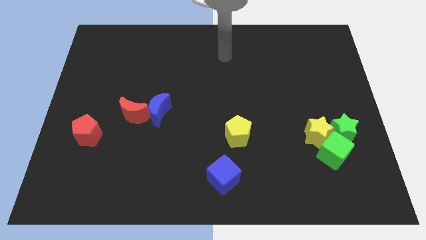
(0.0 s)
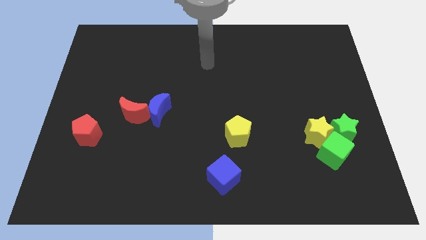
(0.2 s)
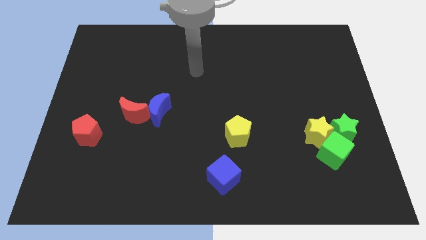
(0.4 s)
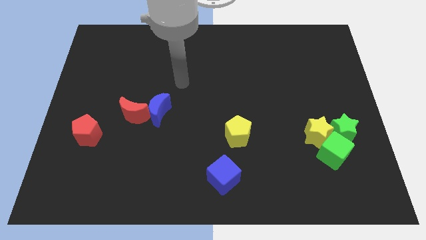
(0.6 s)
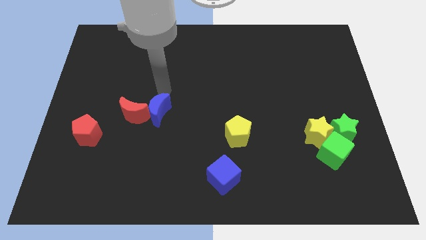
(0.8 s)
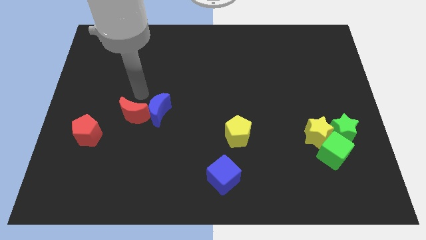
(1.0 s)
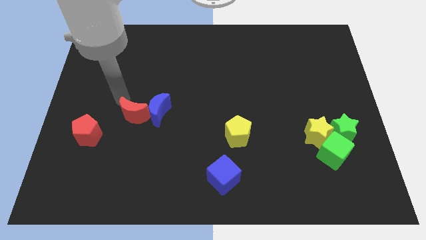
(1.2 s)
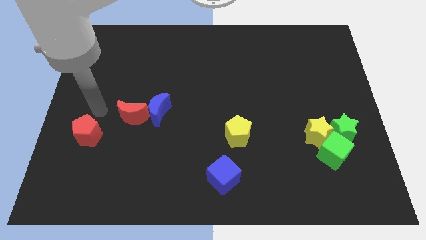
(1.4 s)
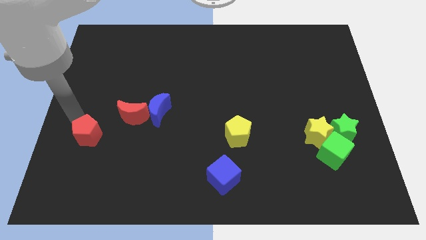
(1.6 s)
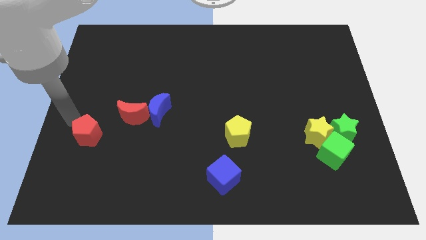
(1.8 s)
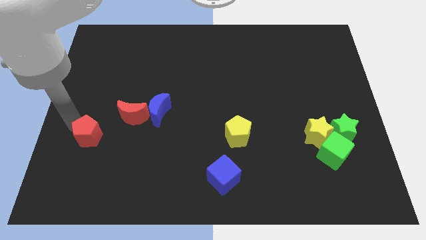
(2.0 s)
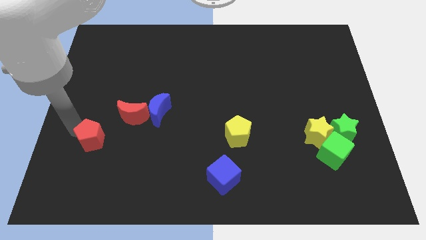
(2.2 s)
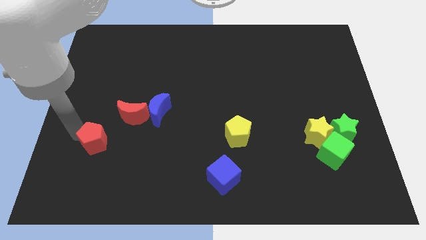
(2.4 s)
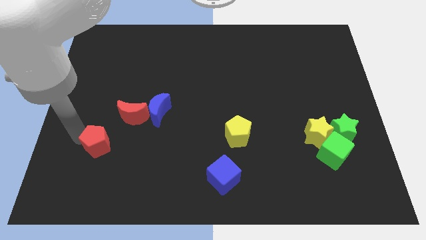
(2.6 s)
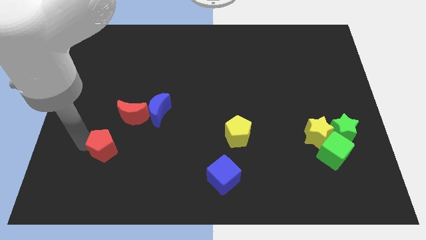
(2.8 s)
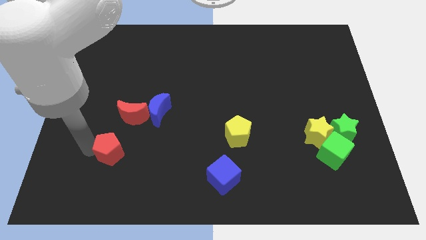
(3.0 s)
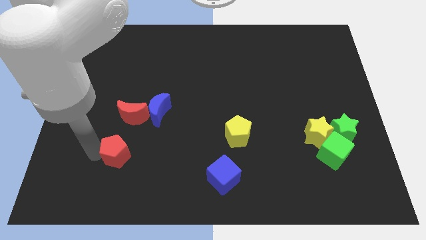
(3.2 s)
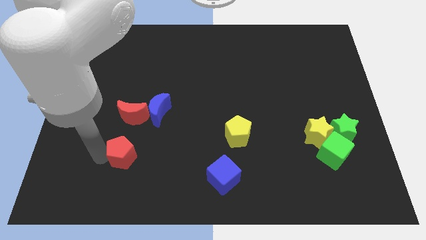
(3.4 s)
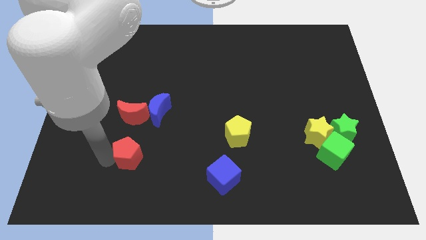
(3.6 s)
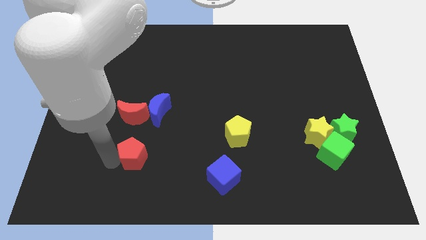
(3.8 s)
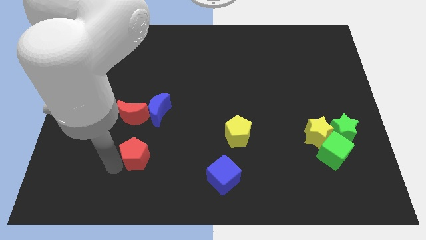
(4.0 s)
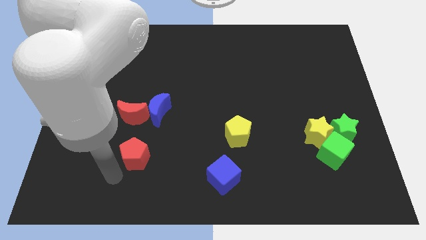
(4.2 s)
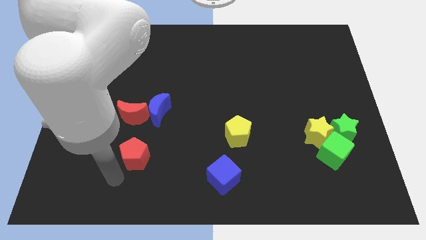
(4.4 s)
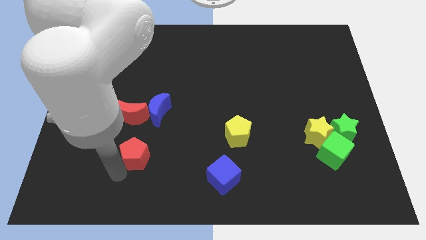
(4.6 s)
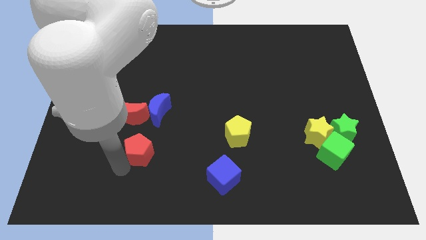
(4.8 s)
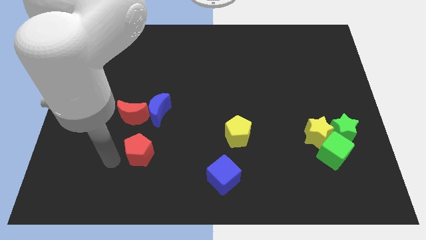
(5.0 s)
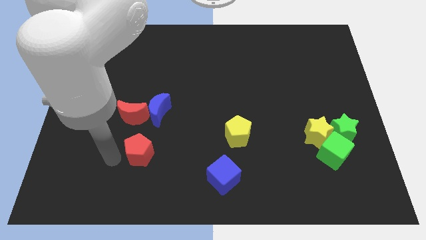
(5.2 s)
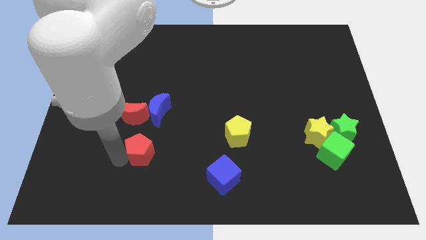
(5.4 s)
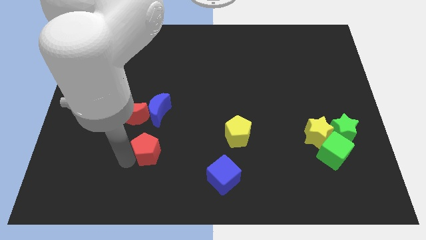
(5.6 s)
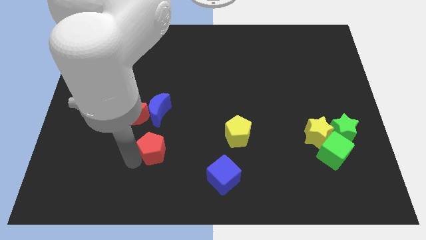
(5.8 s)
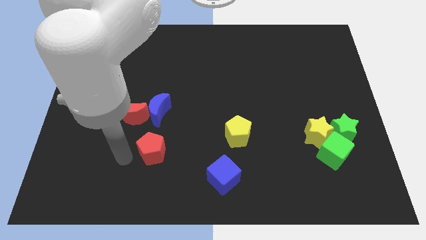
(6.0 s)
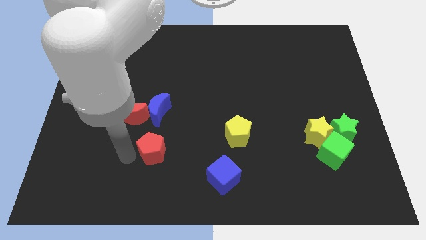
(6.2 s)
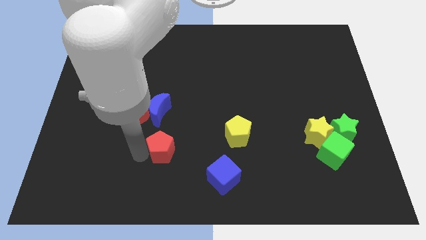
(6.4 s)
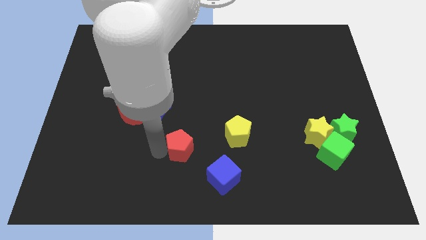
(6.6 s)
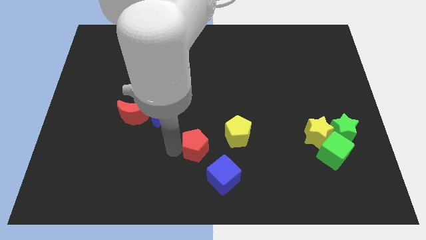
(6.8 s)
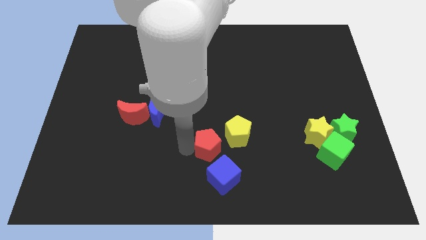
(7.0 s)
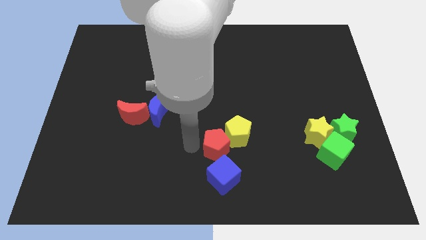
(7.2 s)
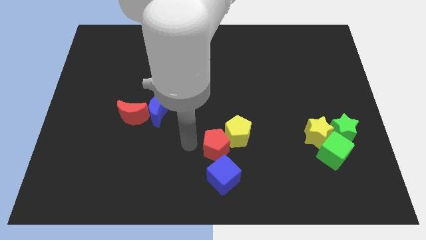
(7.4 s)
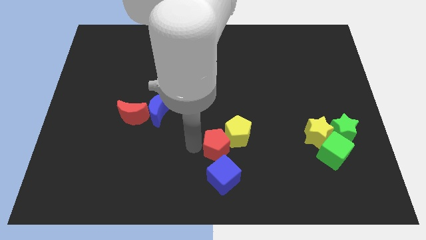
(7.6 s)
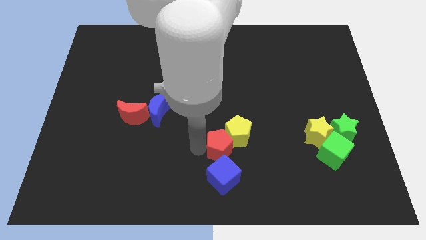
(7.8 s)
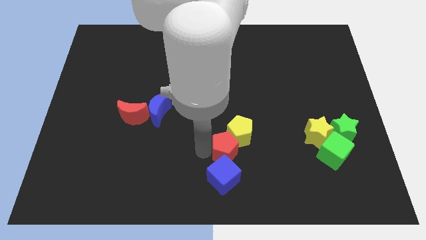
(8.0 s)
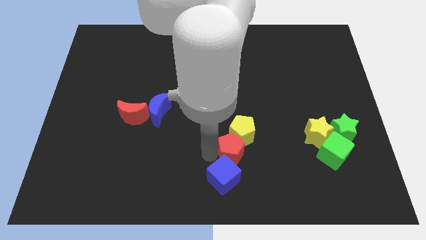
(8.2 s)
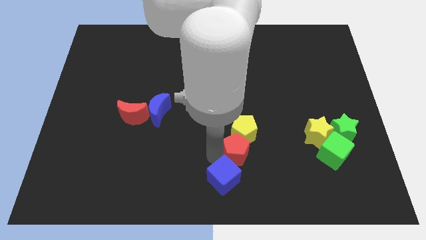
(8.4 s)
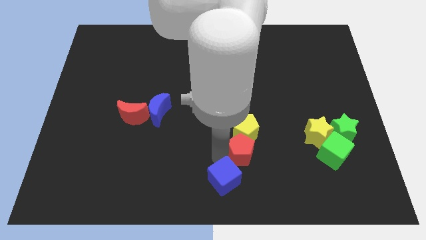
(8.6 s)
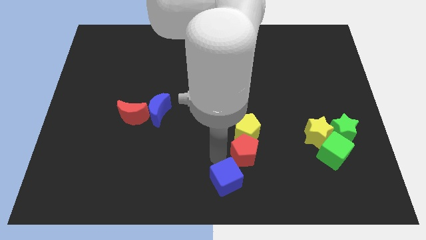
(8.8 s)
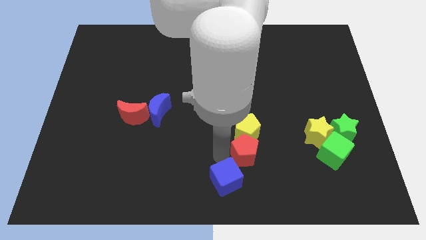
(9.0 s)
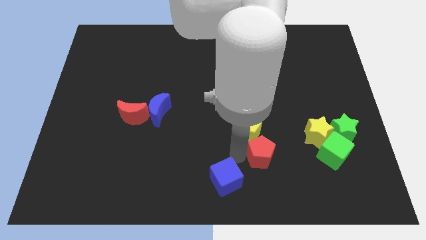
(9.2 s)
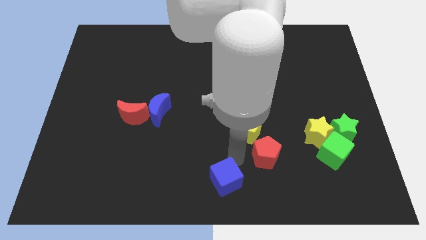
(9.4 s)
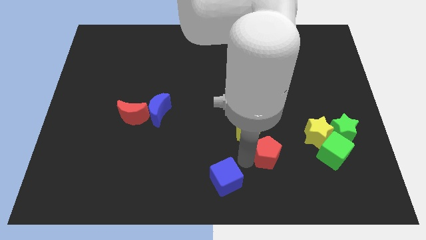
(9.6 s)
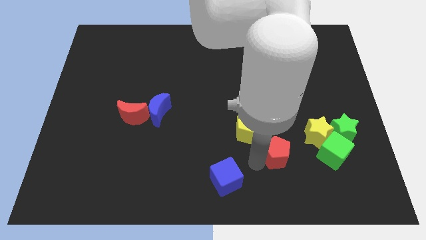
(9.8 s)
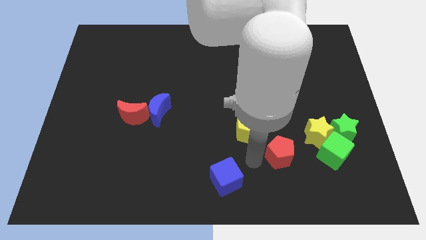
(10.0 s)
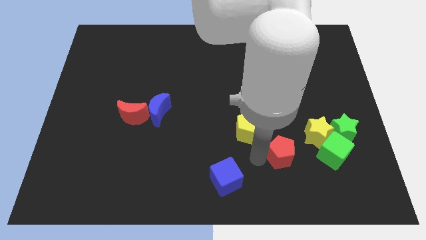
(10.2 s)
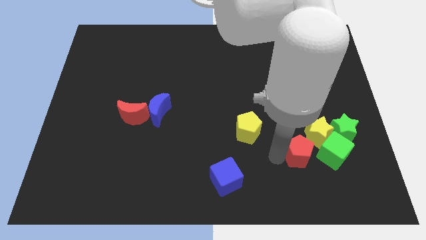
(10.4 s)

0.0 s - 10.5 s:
slide the red pentagon diagonally down and to the left of the green star

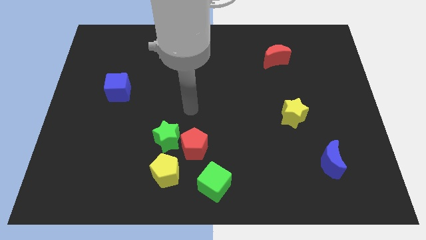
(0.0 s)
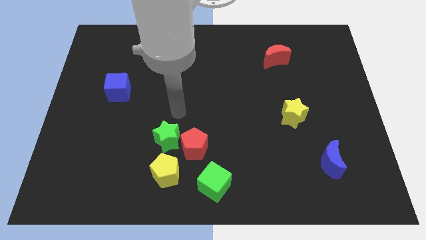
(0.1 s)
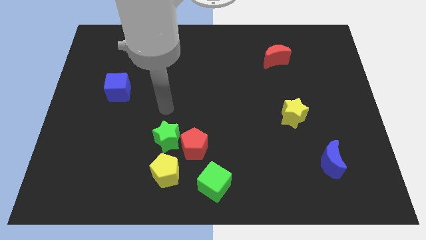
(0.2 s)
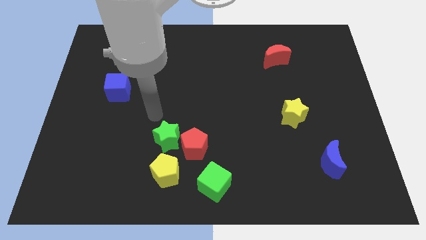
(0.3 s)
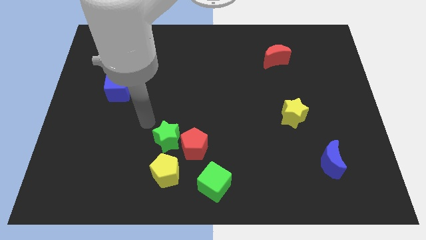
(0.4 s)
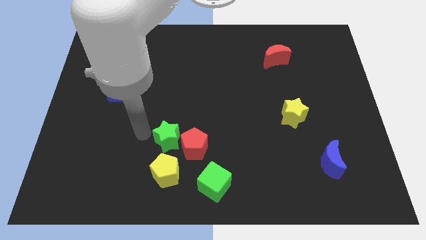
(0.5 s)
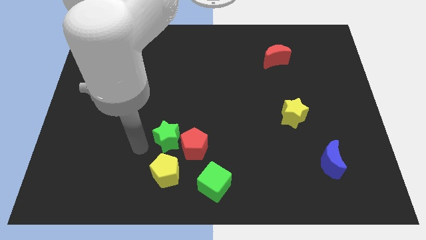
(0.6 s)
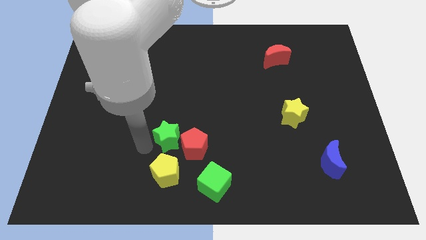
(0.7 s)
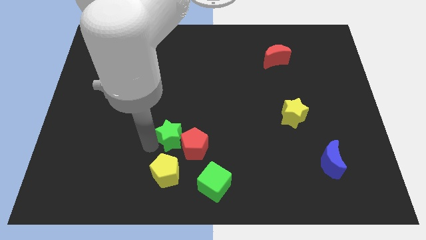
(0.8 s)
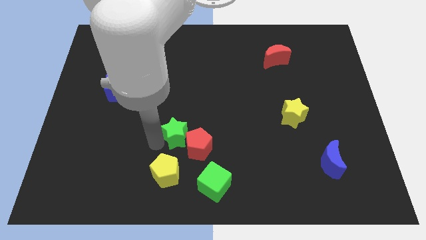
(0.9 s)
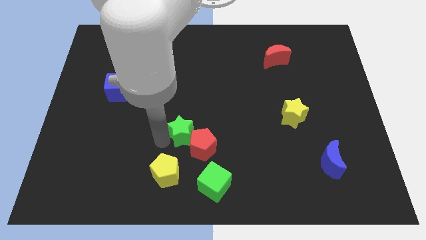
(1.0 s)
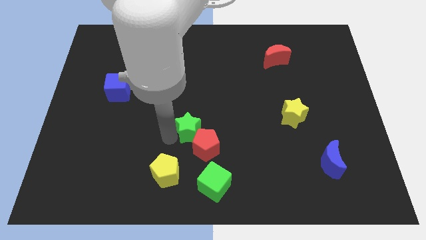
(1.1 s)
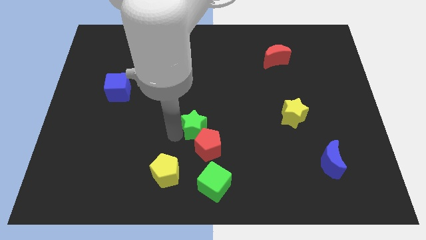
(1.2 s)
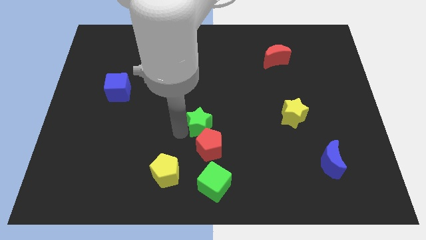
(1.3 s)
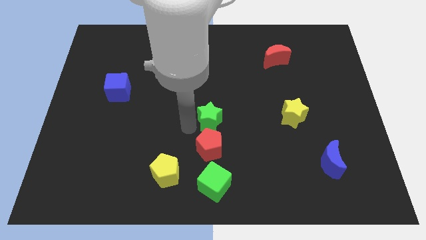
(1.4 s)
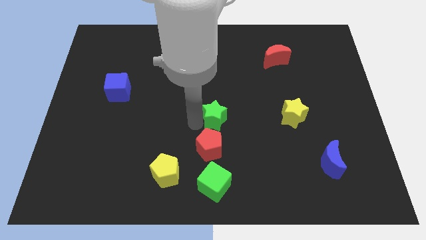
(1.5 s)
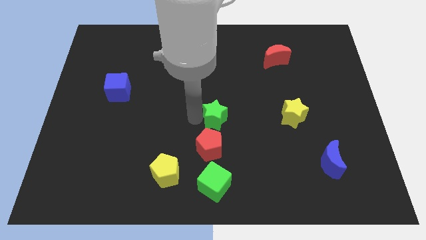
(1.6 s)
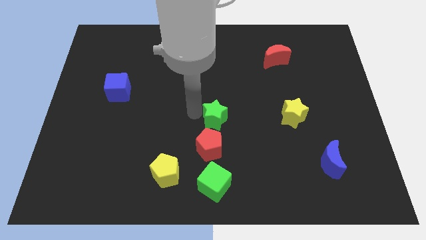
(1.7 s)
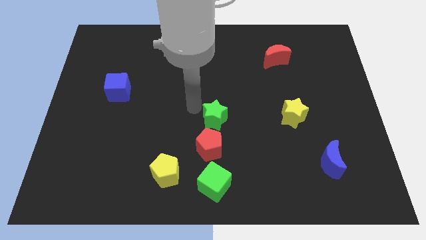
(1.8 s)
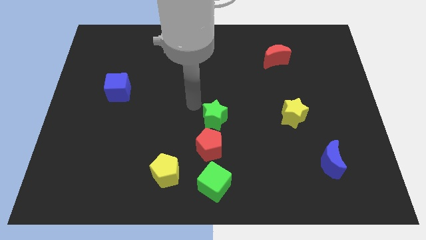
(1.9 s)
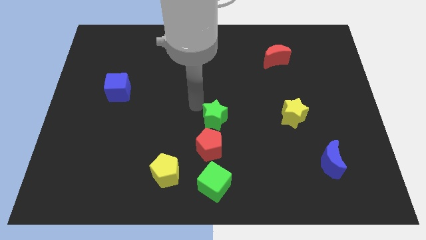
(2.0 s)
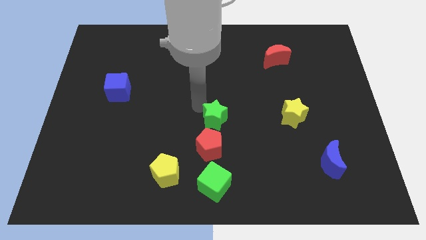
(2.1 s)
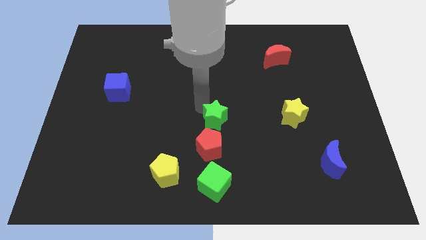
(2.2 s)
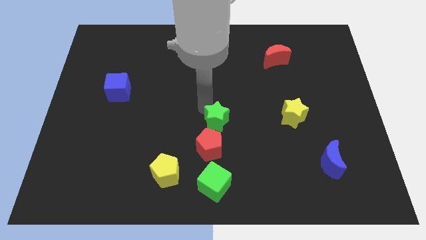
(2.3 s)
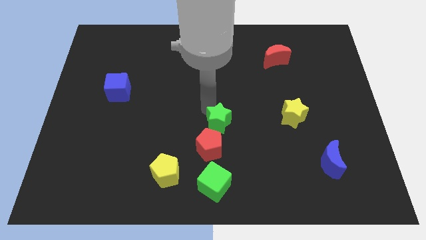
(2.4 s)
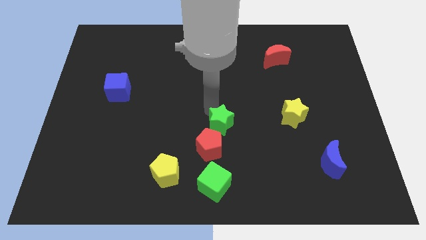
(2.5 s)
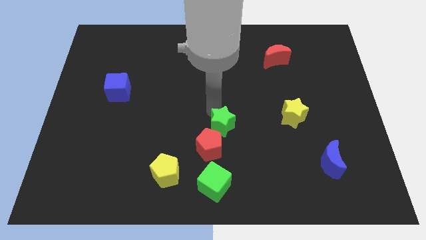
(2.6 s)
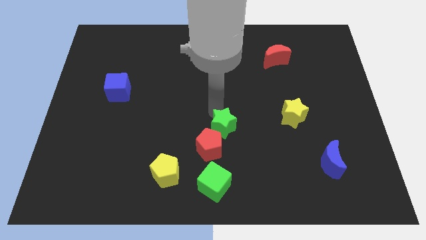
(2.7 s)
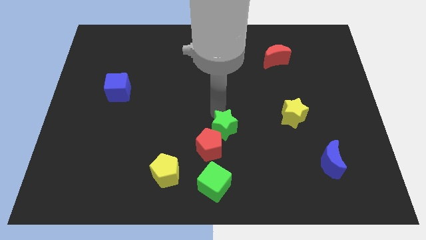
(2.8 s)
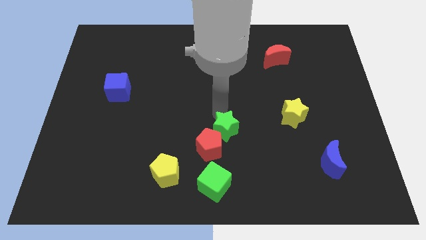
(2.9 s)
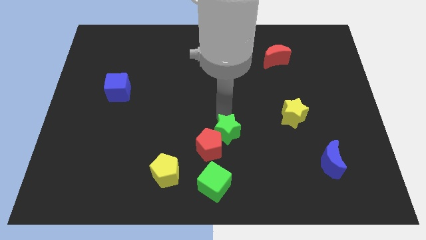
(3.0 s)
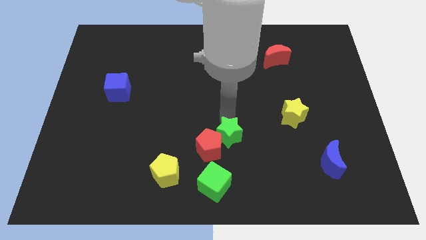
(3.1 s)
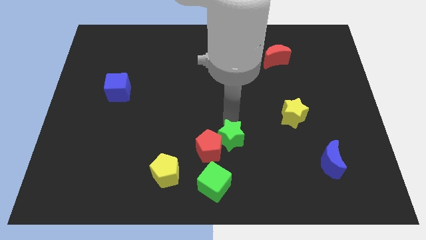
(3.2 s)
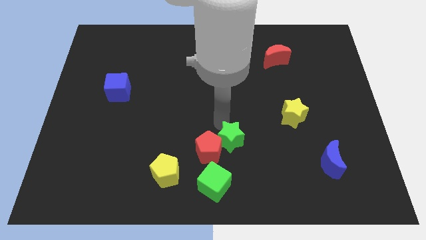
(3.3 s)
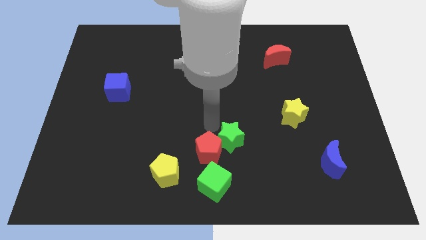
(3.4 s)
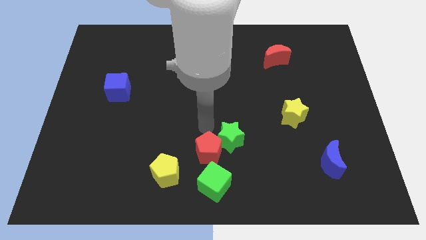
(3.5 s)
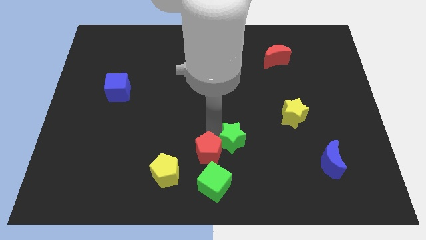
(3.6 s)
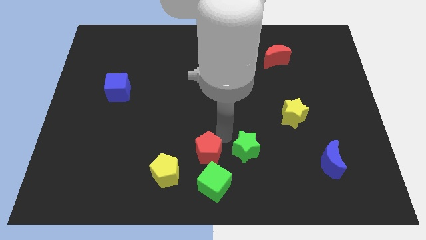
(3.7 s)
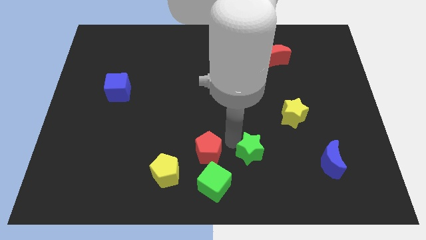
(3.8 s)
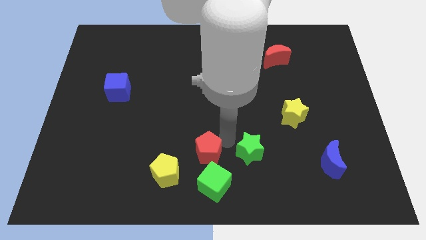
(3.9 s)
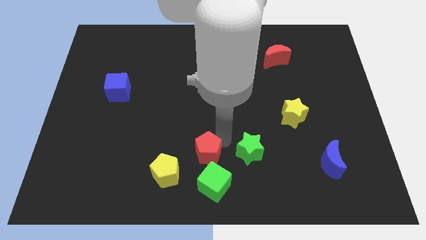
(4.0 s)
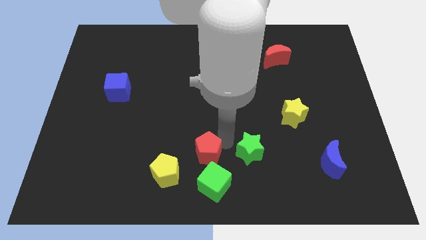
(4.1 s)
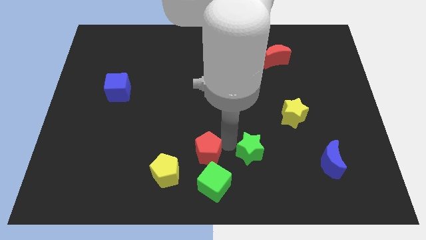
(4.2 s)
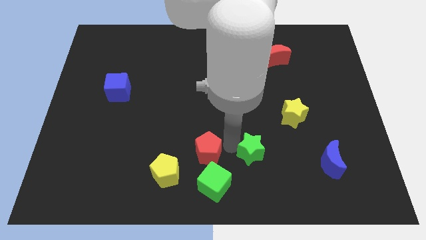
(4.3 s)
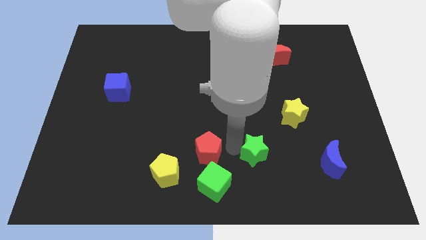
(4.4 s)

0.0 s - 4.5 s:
put the green star to the left of the blue moon
